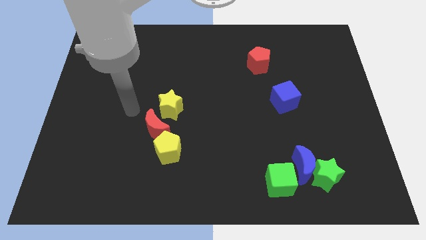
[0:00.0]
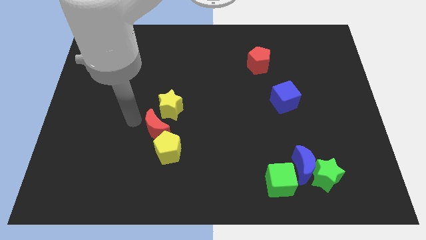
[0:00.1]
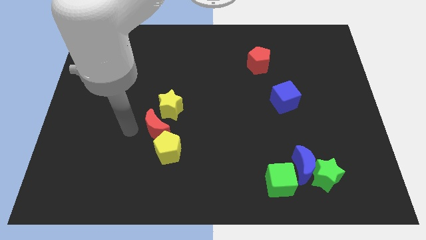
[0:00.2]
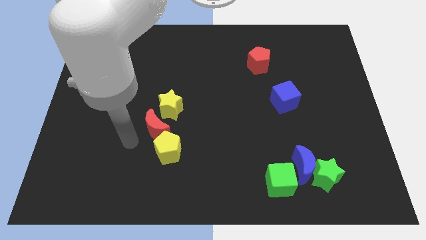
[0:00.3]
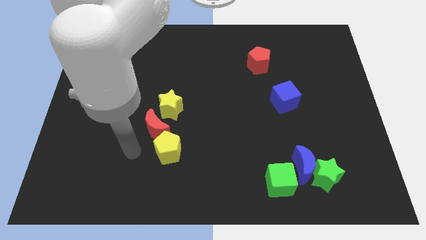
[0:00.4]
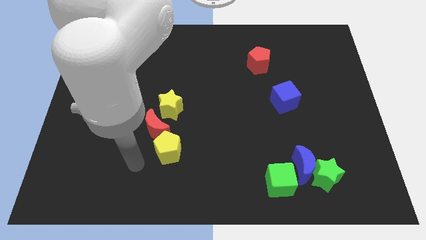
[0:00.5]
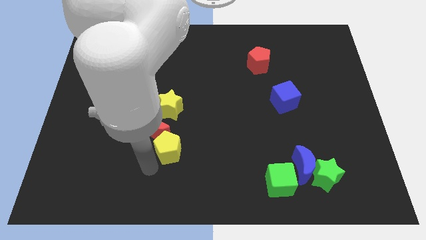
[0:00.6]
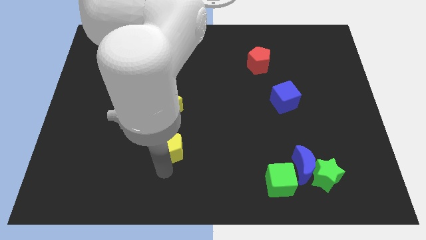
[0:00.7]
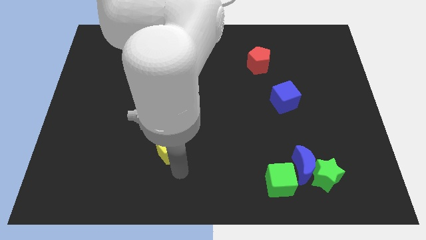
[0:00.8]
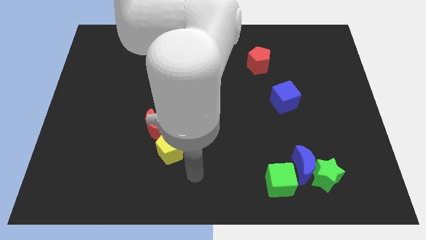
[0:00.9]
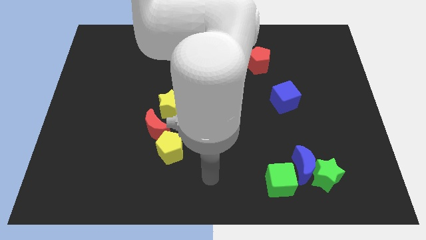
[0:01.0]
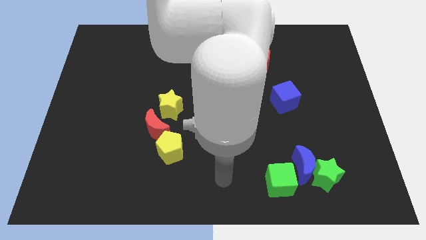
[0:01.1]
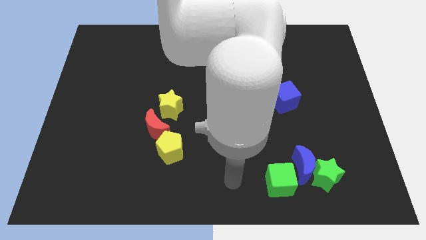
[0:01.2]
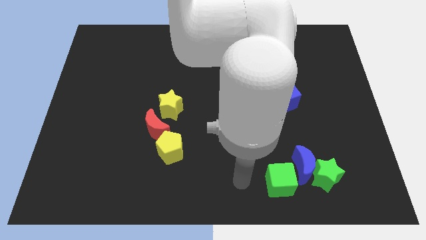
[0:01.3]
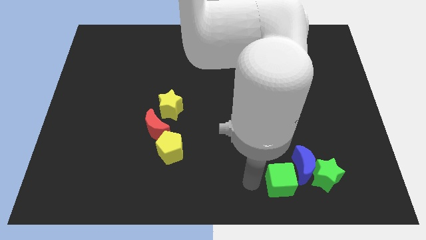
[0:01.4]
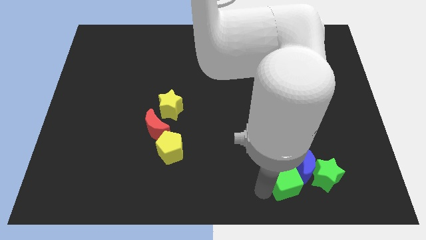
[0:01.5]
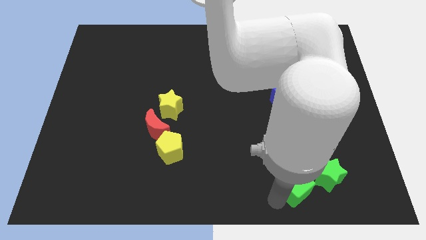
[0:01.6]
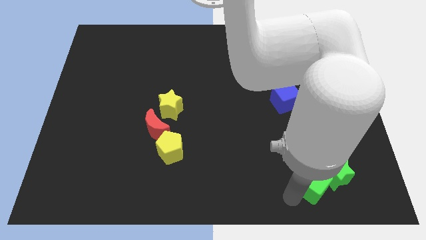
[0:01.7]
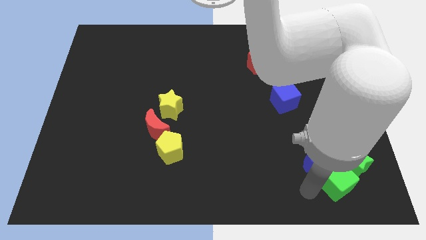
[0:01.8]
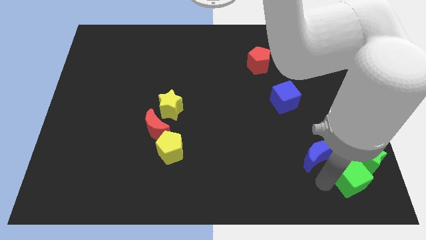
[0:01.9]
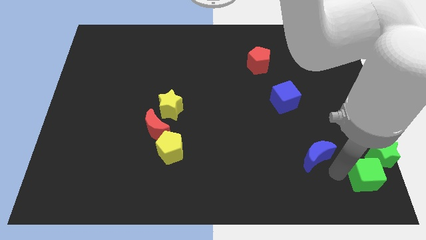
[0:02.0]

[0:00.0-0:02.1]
pull the blue moon apart from the green star and green cube

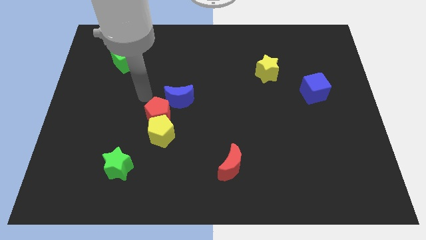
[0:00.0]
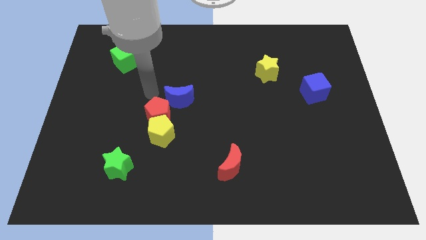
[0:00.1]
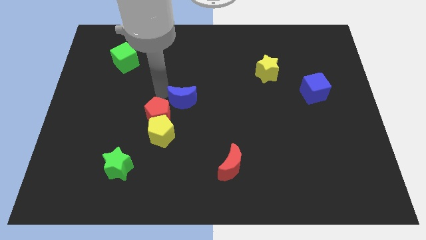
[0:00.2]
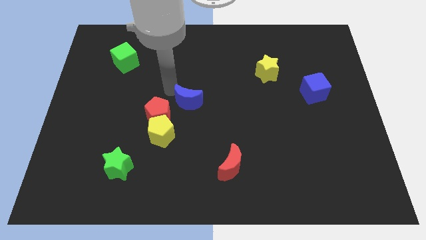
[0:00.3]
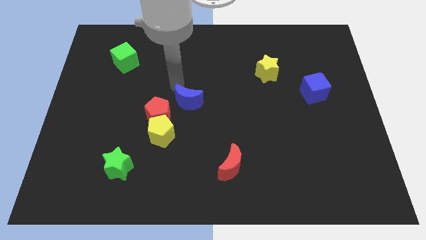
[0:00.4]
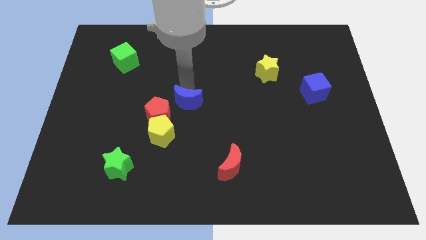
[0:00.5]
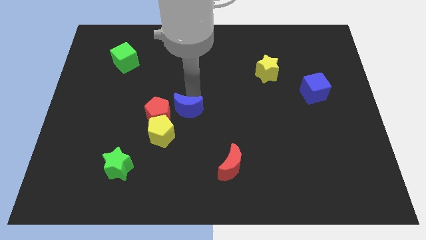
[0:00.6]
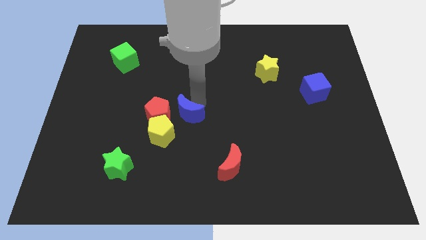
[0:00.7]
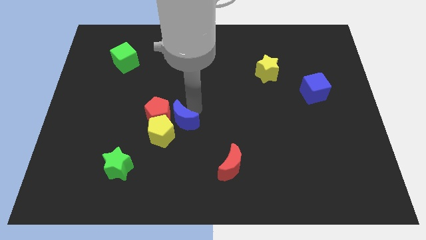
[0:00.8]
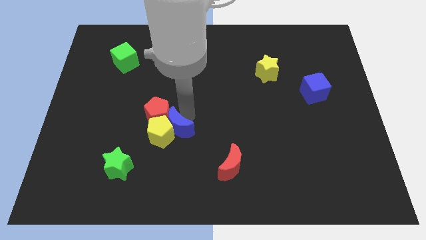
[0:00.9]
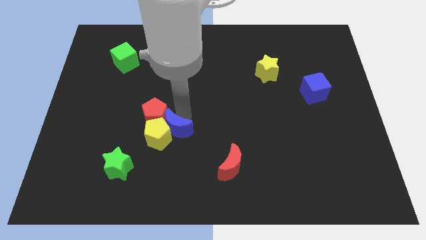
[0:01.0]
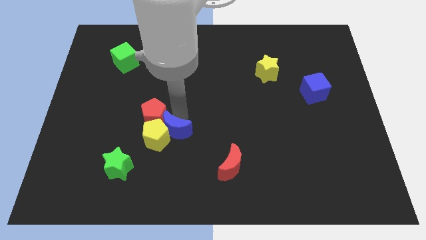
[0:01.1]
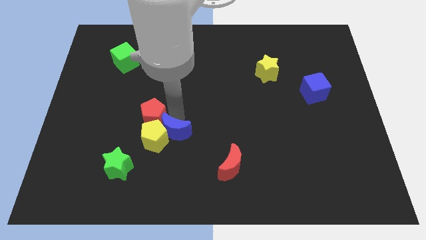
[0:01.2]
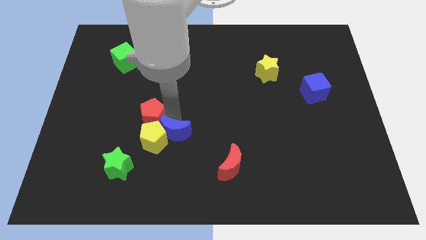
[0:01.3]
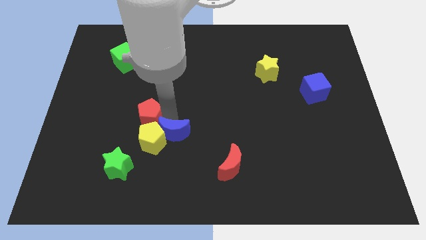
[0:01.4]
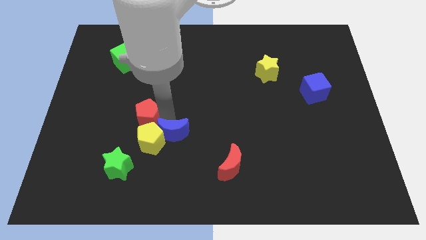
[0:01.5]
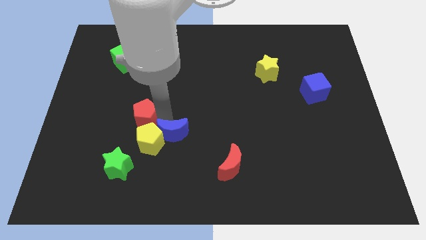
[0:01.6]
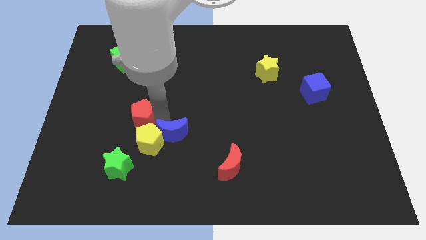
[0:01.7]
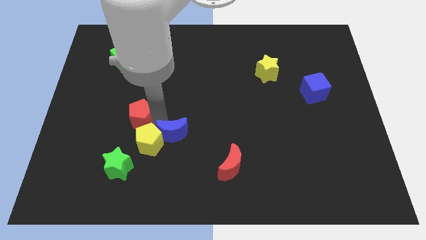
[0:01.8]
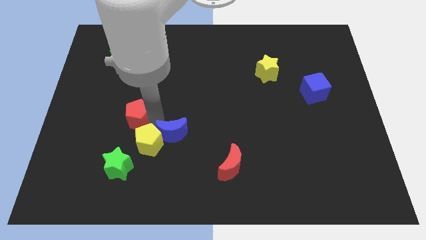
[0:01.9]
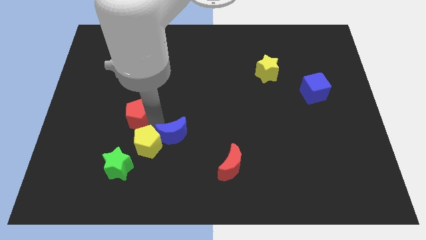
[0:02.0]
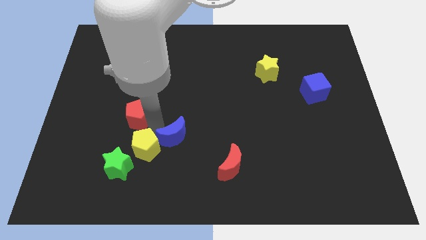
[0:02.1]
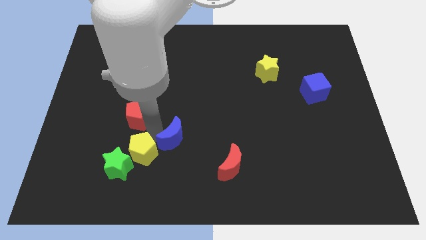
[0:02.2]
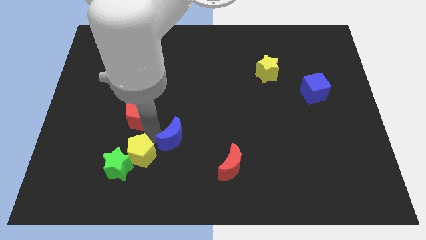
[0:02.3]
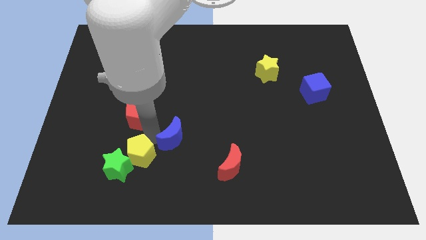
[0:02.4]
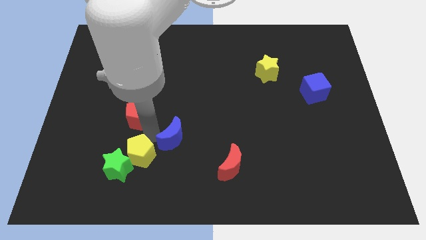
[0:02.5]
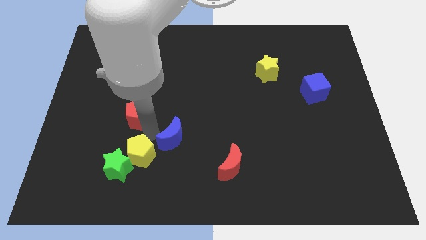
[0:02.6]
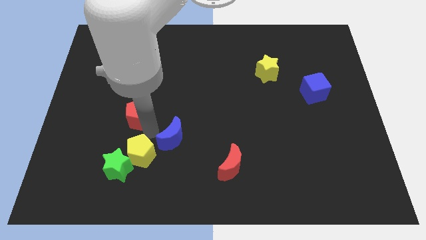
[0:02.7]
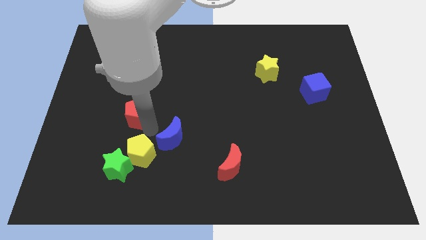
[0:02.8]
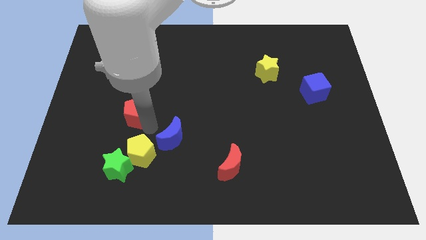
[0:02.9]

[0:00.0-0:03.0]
pull the red pentagon apart from the yellow pentagon and blue moon

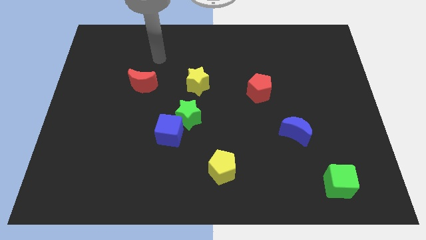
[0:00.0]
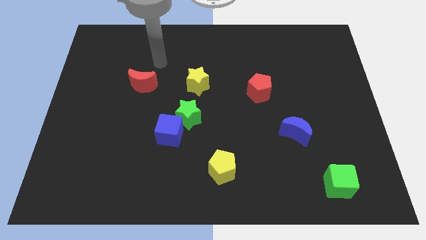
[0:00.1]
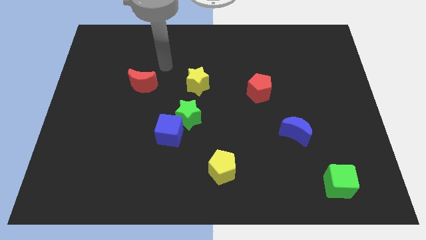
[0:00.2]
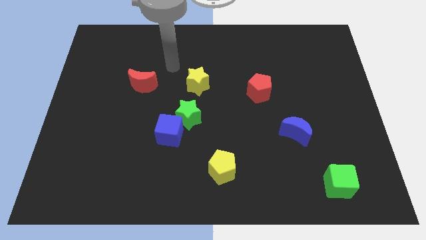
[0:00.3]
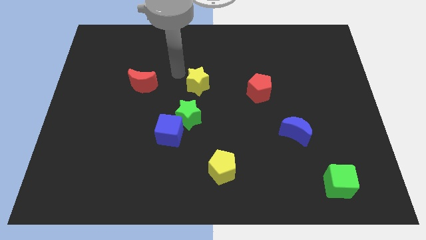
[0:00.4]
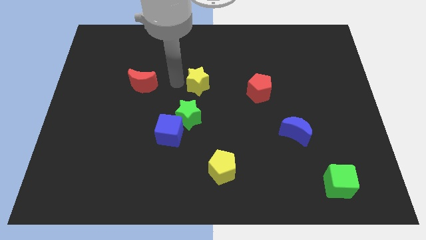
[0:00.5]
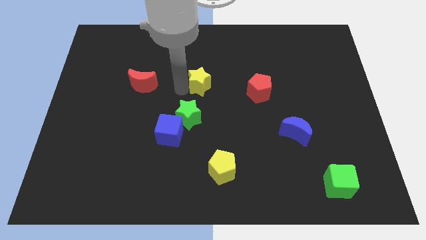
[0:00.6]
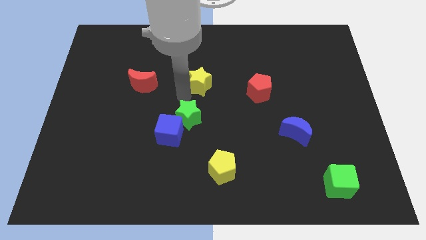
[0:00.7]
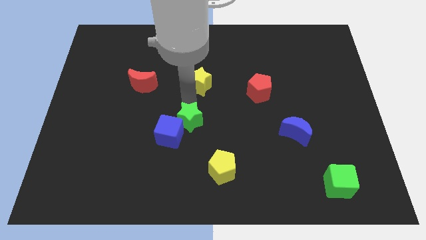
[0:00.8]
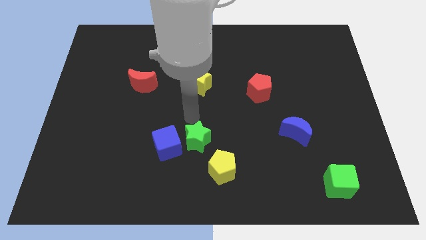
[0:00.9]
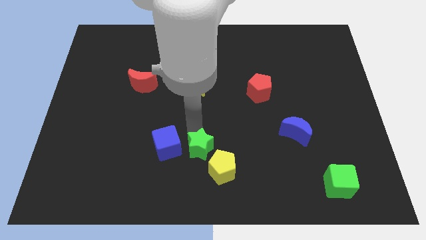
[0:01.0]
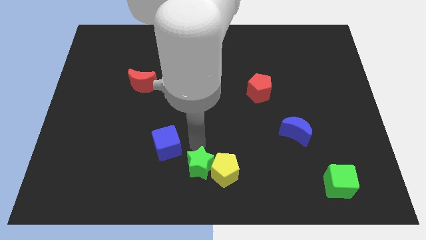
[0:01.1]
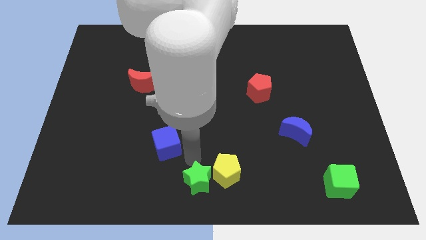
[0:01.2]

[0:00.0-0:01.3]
separate the blue cube from the green star

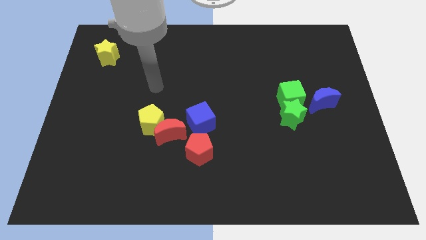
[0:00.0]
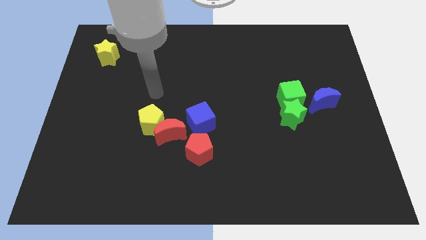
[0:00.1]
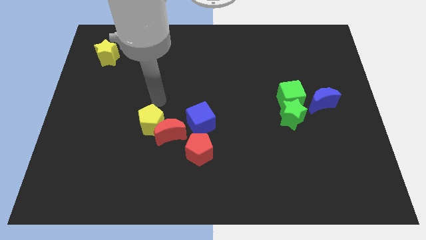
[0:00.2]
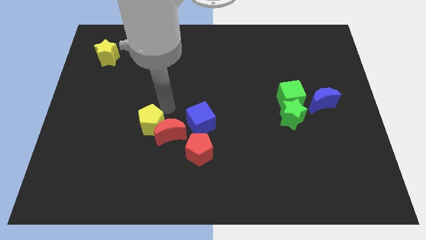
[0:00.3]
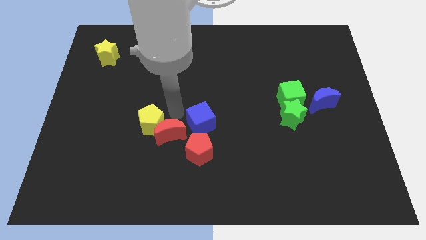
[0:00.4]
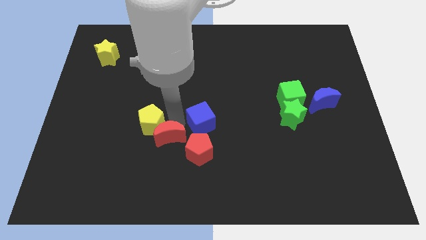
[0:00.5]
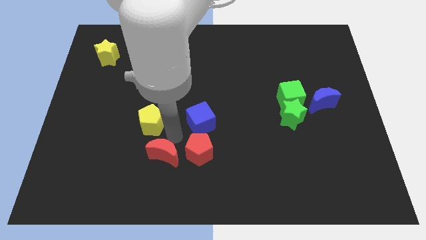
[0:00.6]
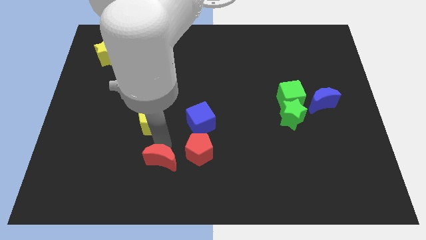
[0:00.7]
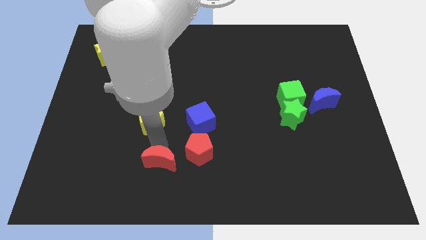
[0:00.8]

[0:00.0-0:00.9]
pull the yellow pentagon apart from the red moon

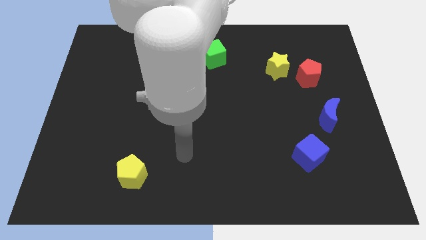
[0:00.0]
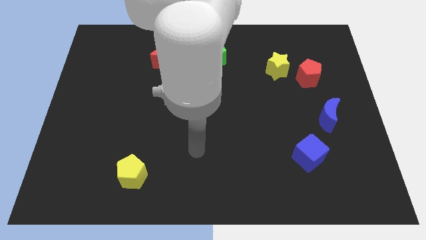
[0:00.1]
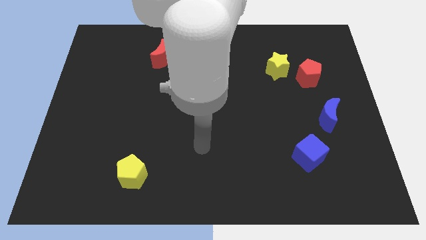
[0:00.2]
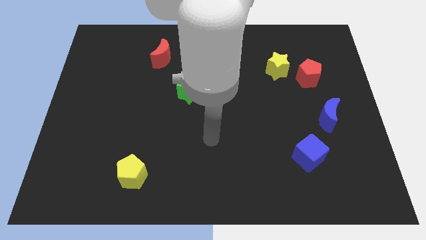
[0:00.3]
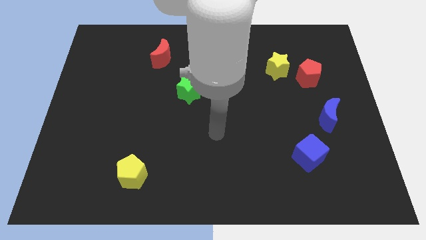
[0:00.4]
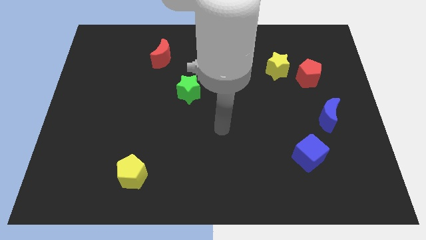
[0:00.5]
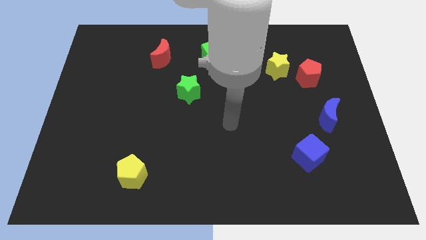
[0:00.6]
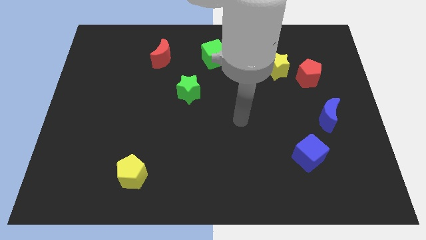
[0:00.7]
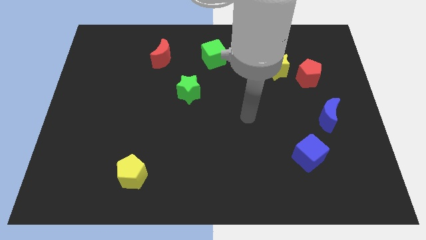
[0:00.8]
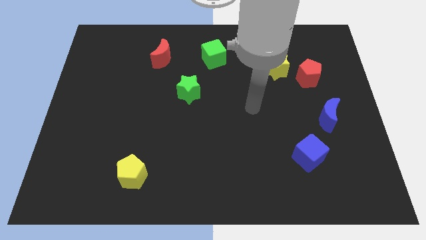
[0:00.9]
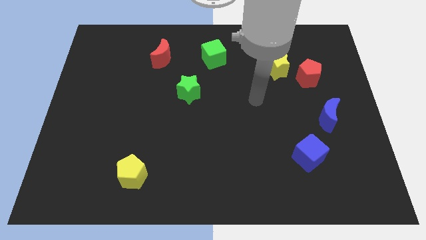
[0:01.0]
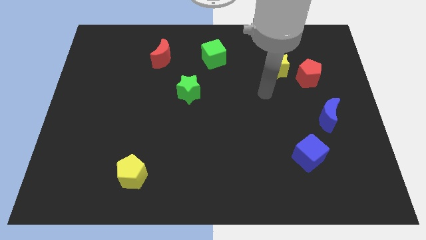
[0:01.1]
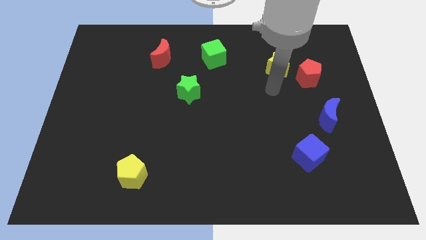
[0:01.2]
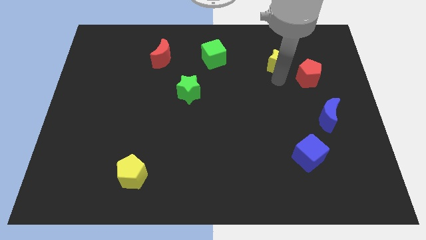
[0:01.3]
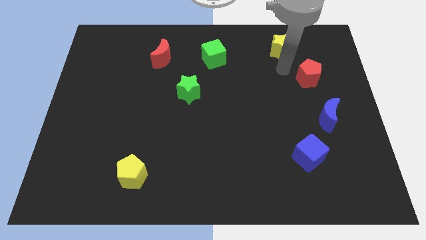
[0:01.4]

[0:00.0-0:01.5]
move the red pentagon away from the yellow star

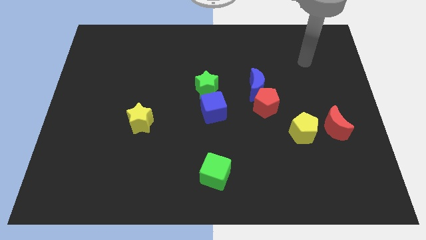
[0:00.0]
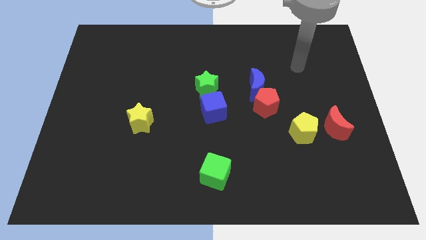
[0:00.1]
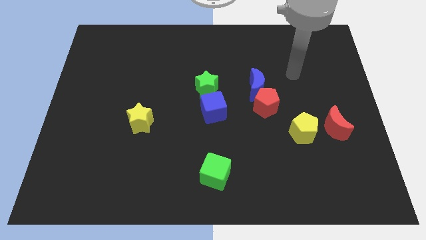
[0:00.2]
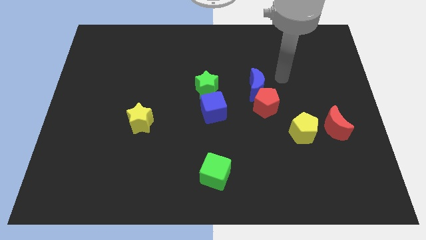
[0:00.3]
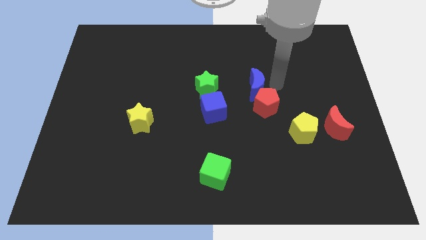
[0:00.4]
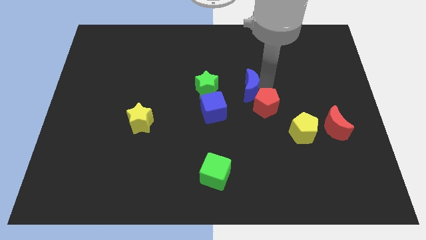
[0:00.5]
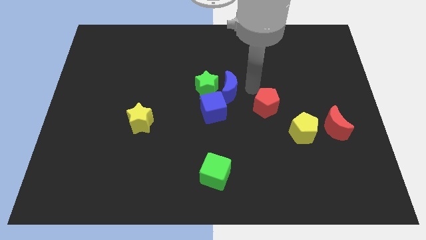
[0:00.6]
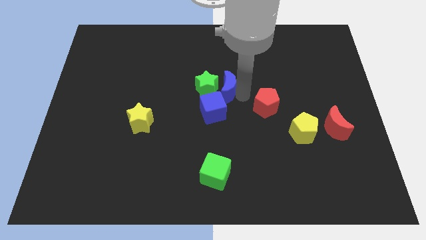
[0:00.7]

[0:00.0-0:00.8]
move the red pentagon away from the blue moon
